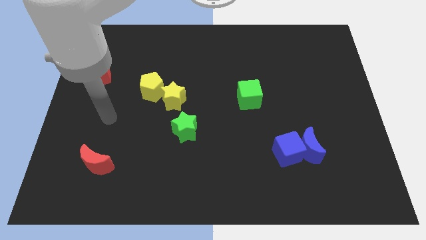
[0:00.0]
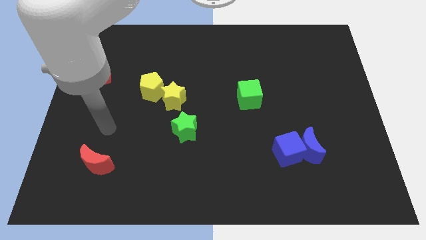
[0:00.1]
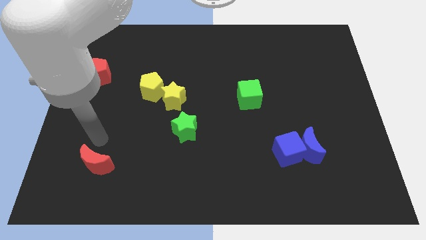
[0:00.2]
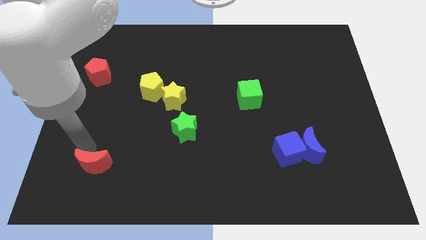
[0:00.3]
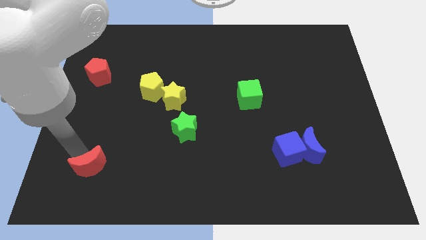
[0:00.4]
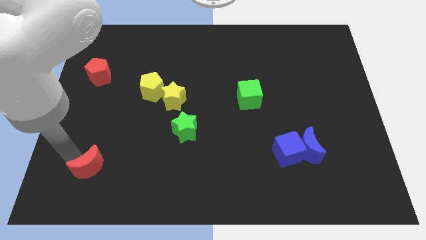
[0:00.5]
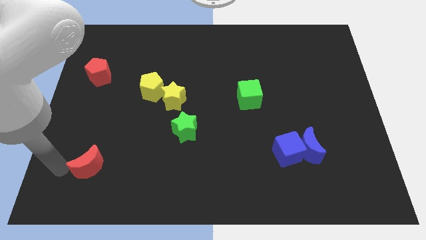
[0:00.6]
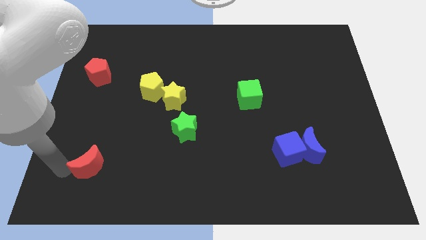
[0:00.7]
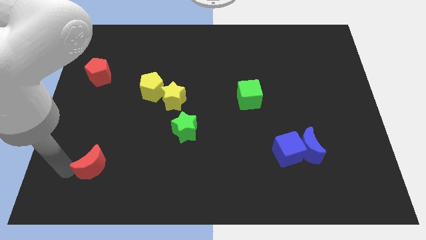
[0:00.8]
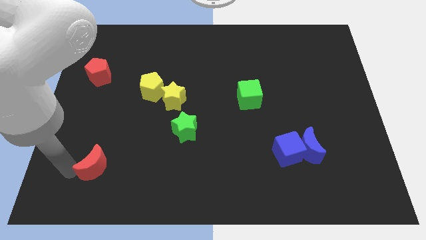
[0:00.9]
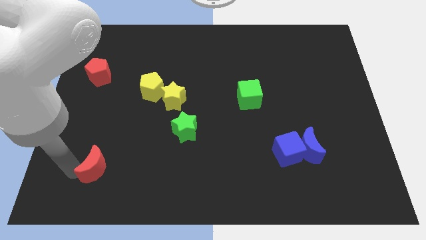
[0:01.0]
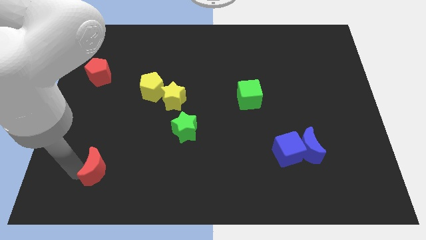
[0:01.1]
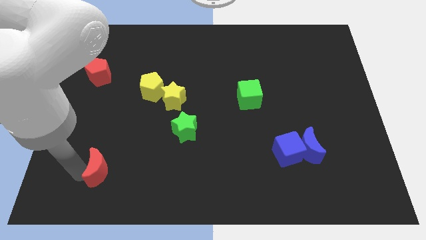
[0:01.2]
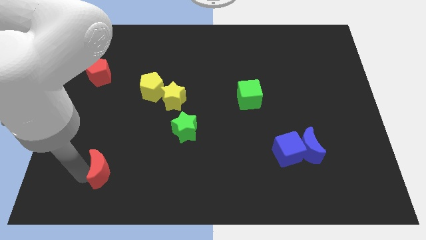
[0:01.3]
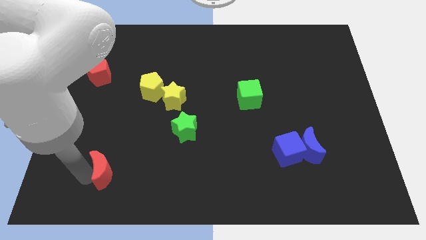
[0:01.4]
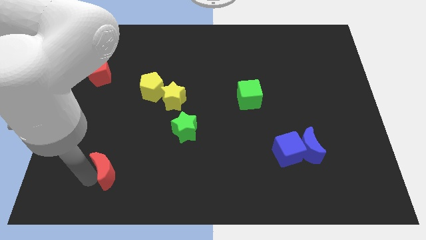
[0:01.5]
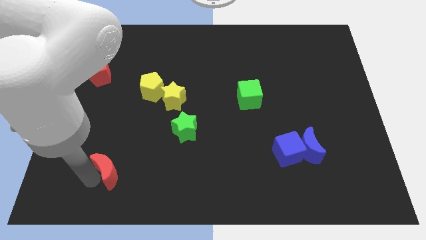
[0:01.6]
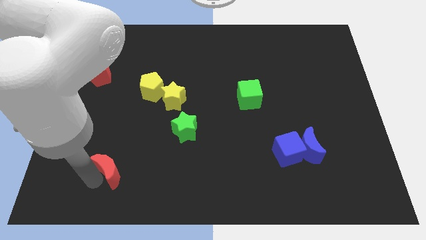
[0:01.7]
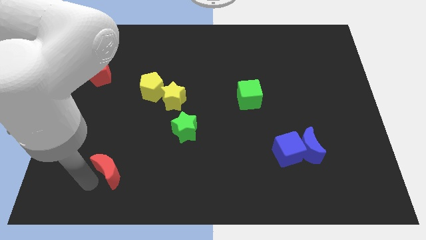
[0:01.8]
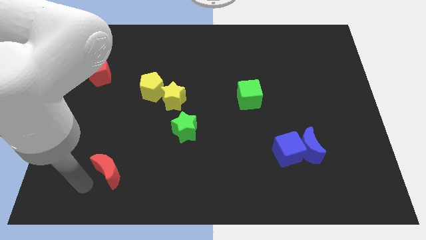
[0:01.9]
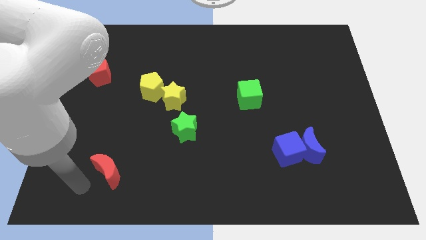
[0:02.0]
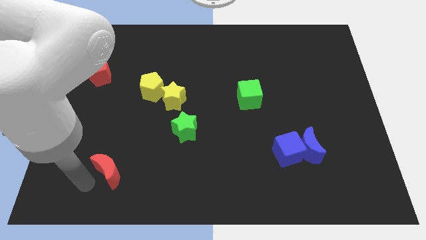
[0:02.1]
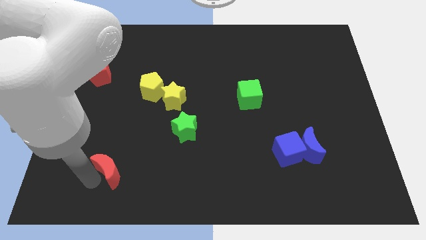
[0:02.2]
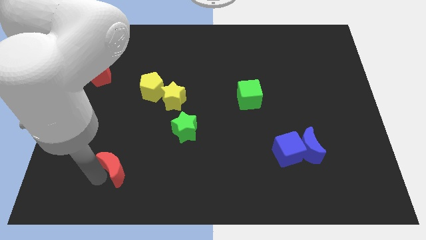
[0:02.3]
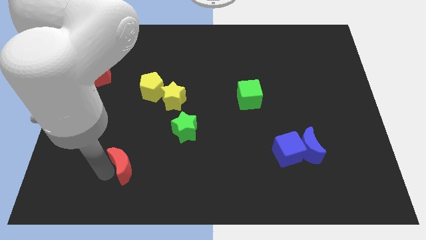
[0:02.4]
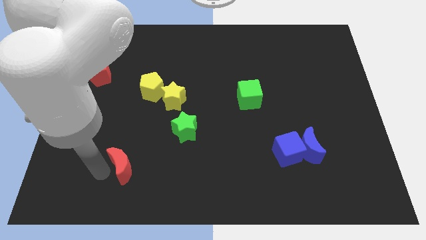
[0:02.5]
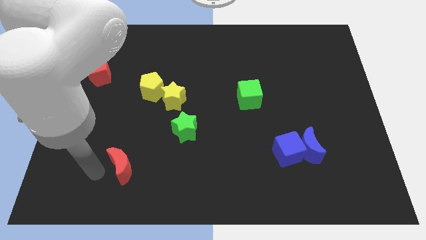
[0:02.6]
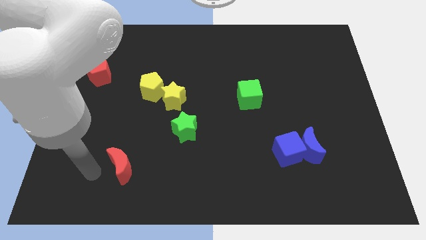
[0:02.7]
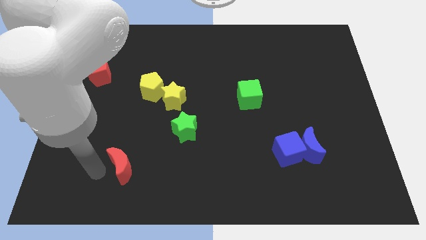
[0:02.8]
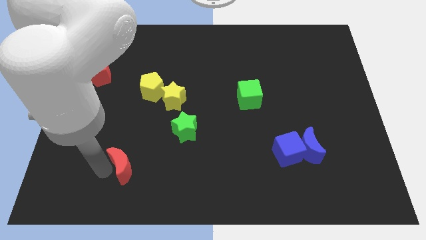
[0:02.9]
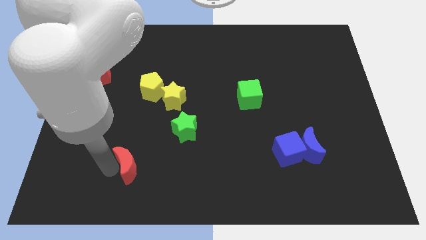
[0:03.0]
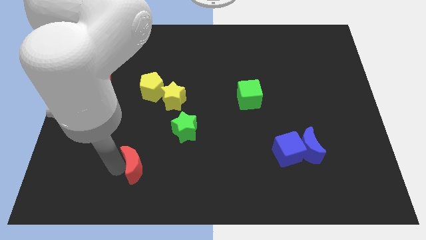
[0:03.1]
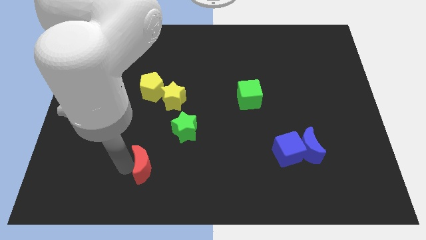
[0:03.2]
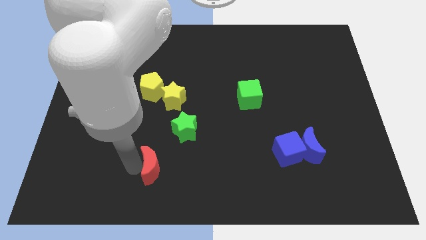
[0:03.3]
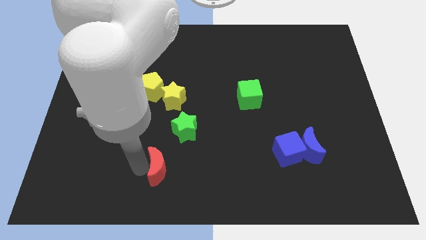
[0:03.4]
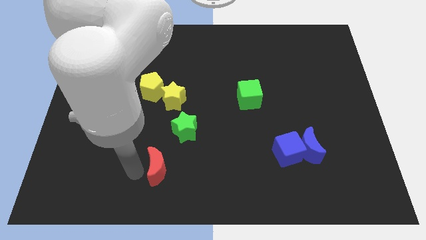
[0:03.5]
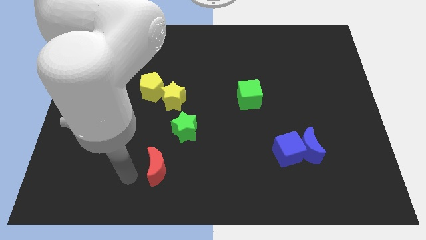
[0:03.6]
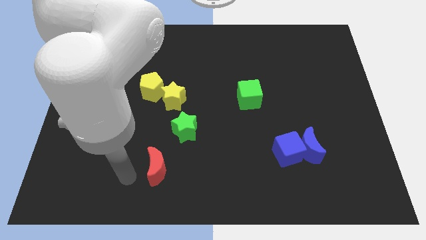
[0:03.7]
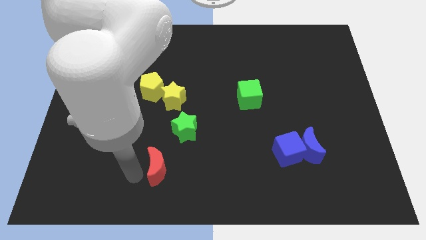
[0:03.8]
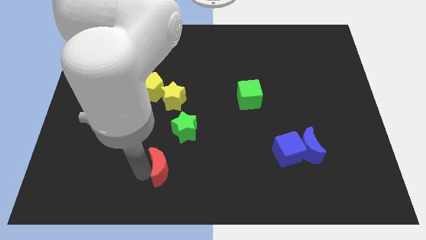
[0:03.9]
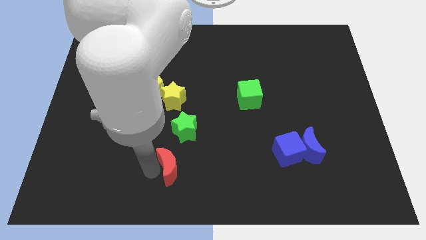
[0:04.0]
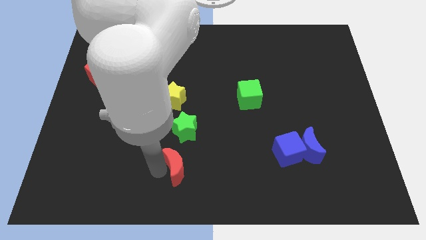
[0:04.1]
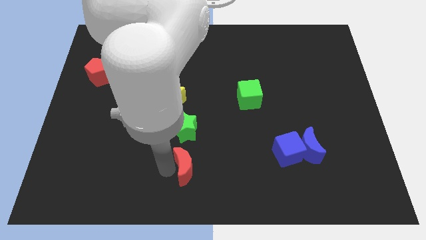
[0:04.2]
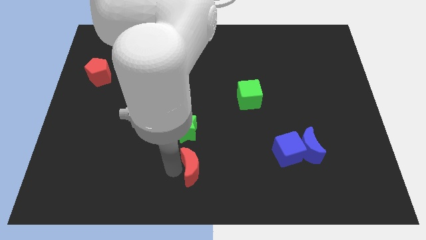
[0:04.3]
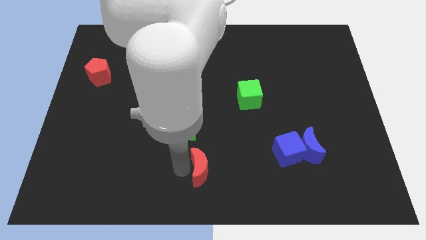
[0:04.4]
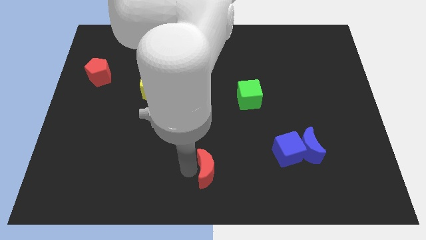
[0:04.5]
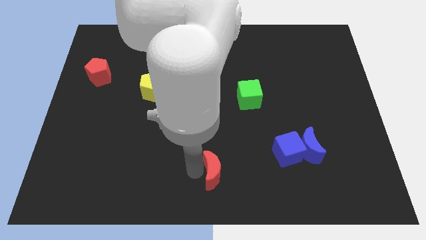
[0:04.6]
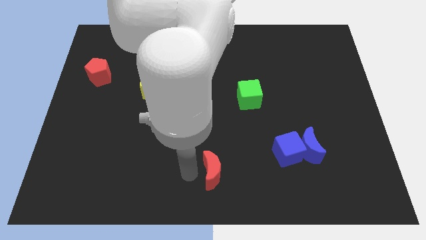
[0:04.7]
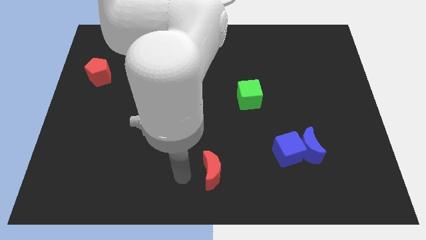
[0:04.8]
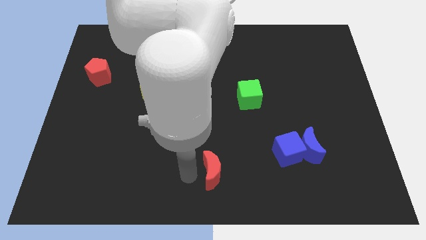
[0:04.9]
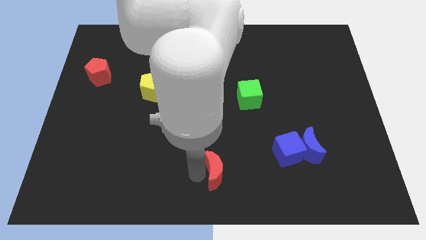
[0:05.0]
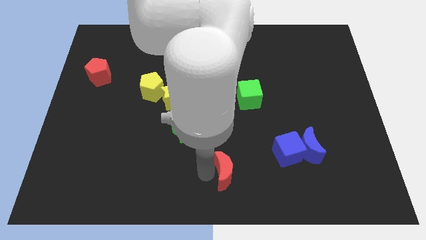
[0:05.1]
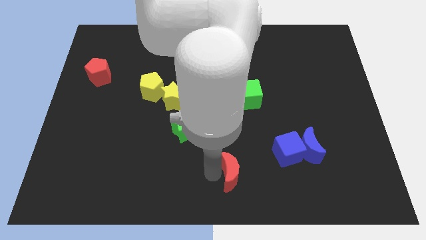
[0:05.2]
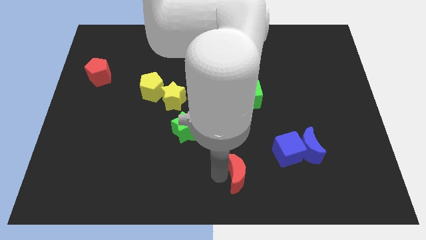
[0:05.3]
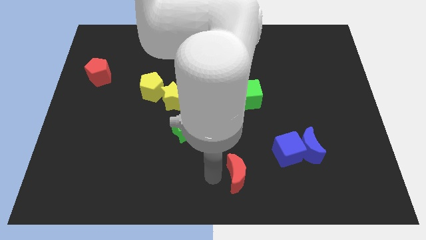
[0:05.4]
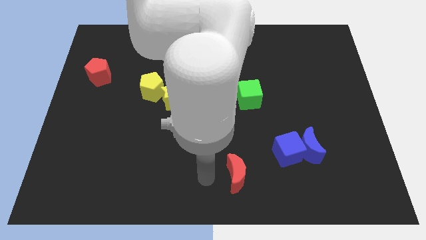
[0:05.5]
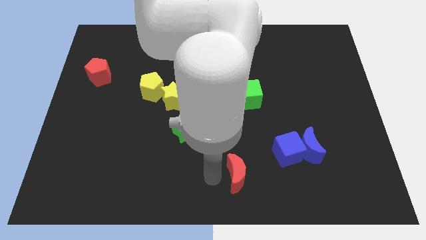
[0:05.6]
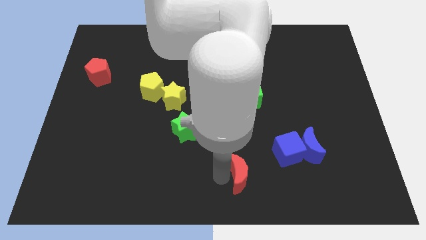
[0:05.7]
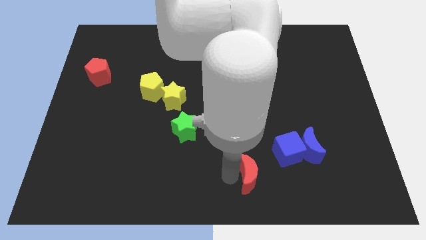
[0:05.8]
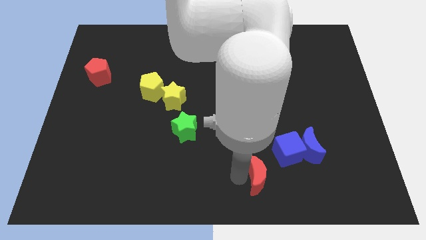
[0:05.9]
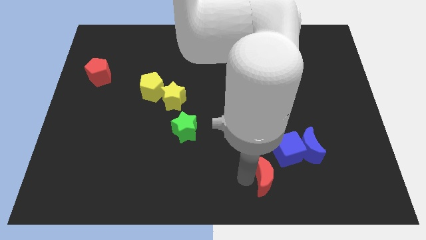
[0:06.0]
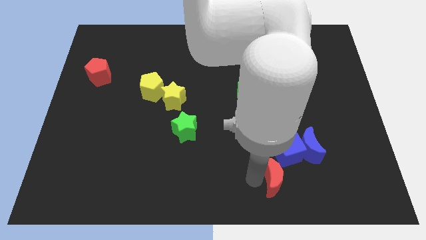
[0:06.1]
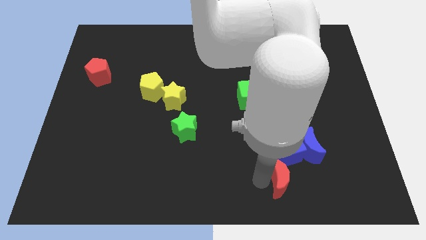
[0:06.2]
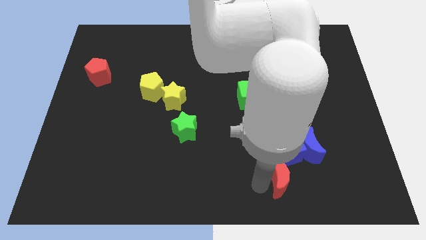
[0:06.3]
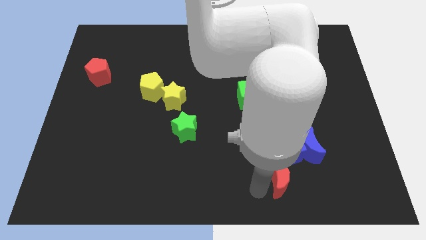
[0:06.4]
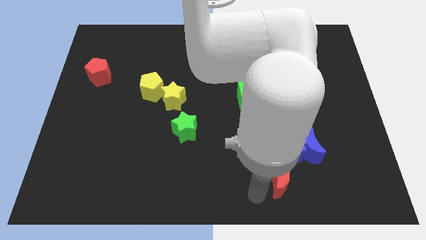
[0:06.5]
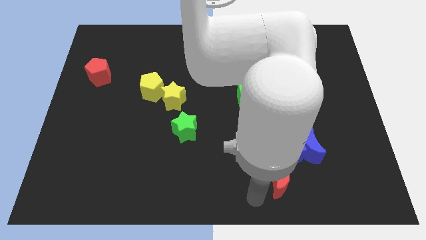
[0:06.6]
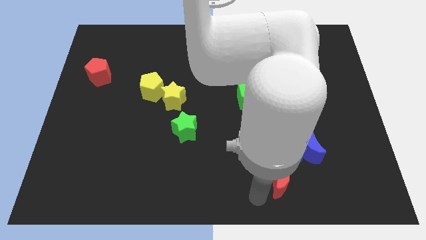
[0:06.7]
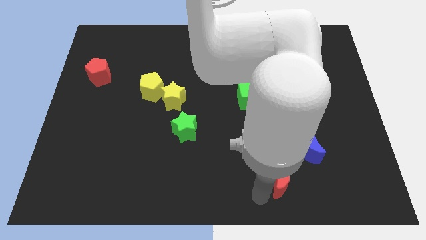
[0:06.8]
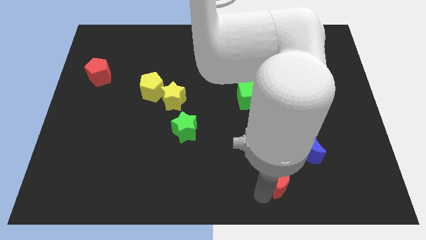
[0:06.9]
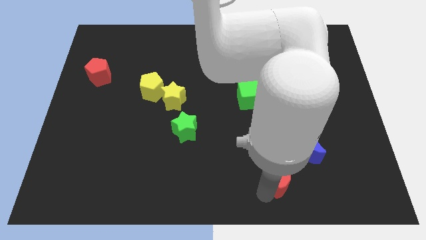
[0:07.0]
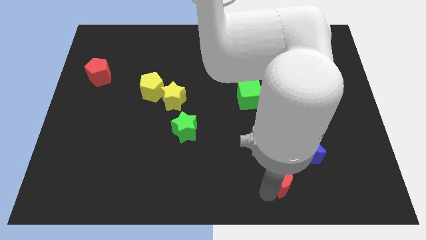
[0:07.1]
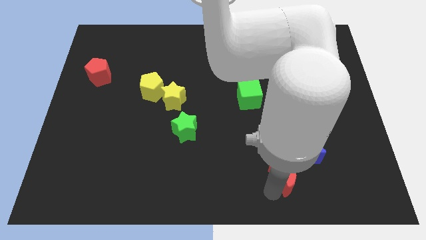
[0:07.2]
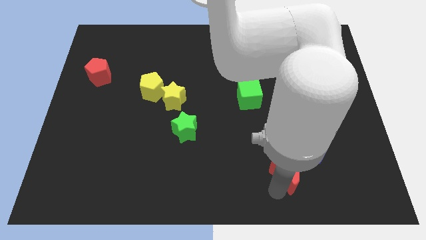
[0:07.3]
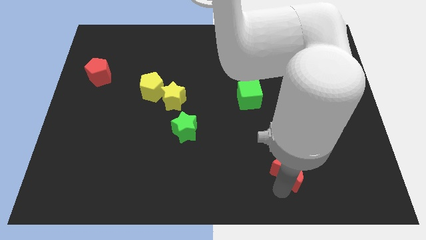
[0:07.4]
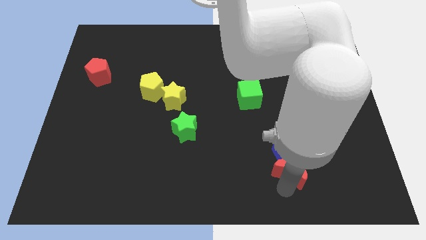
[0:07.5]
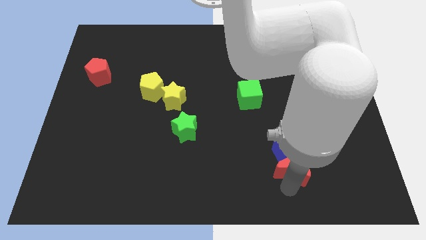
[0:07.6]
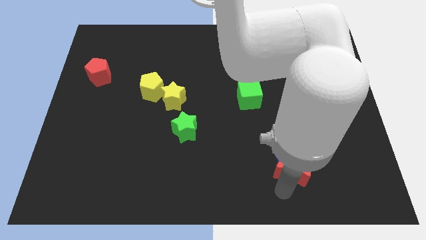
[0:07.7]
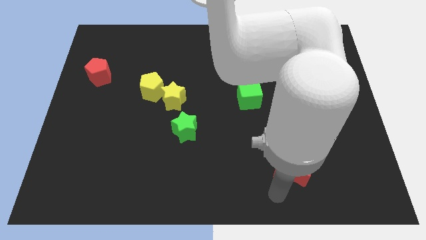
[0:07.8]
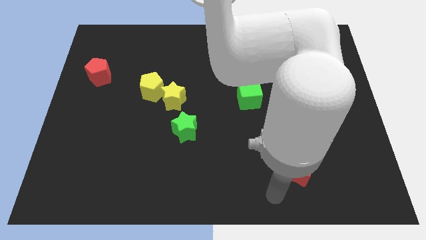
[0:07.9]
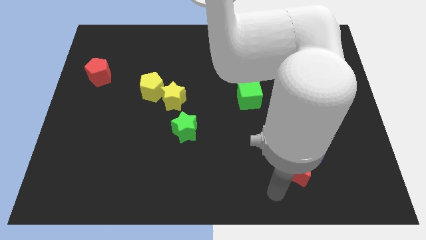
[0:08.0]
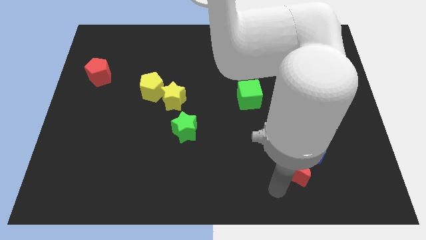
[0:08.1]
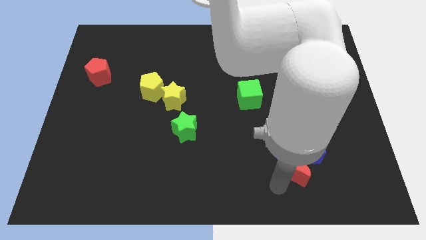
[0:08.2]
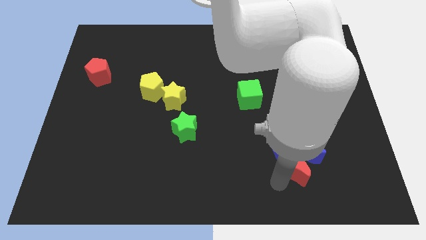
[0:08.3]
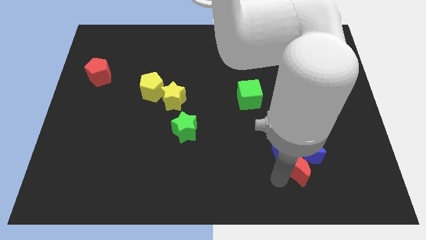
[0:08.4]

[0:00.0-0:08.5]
push the red moon to the blue moon
